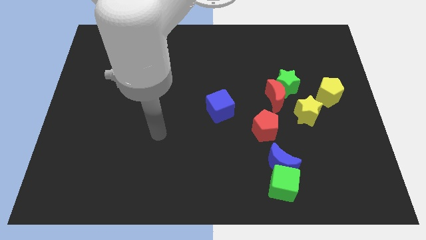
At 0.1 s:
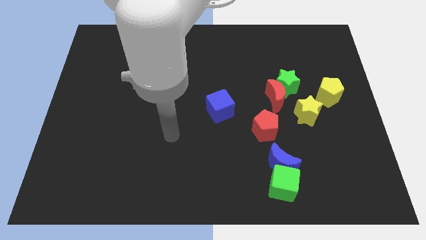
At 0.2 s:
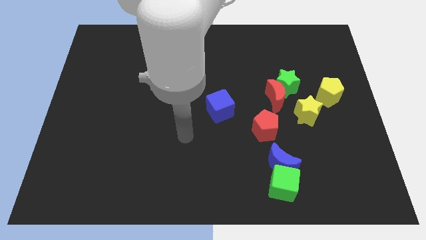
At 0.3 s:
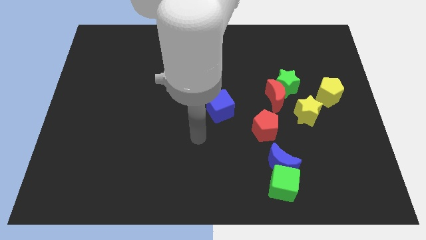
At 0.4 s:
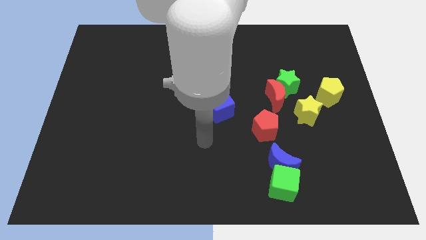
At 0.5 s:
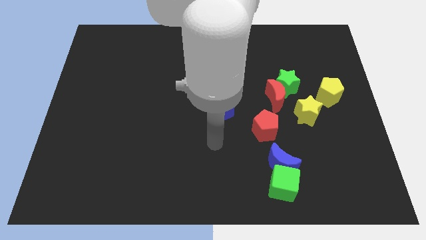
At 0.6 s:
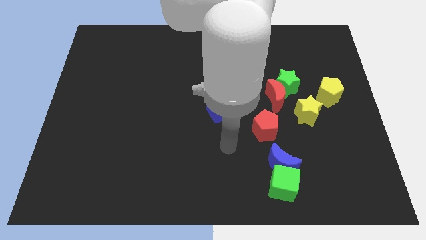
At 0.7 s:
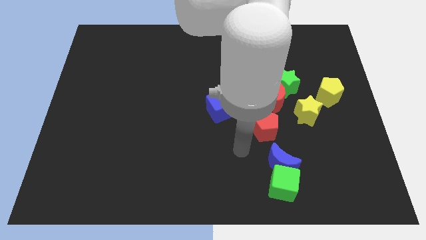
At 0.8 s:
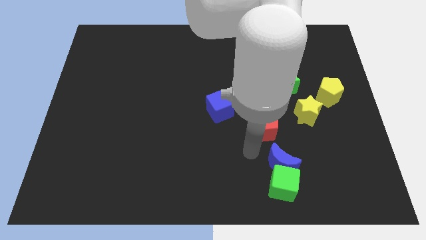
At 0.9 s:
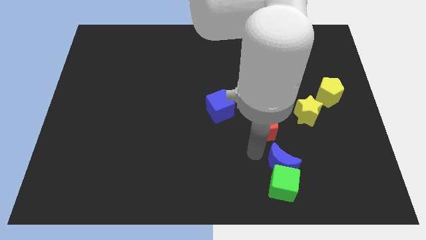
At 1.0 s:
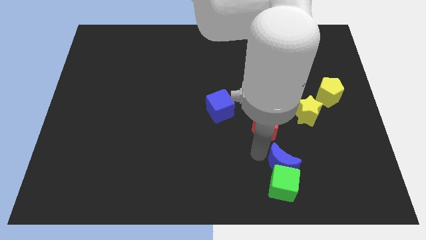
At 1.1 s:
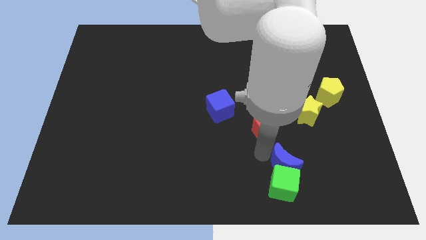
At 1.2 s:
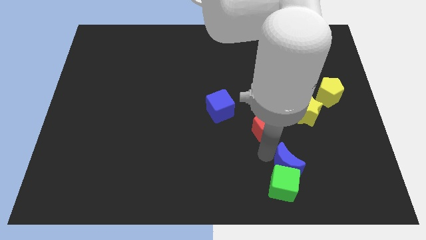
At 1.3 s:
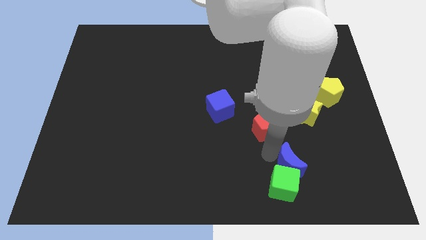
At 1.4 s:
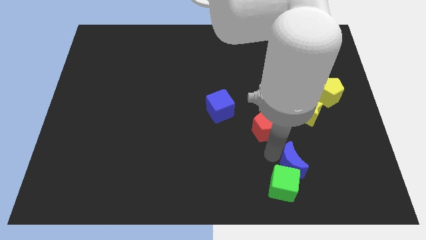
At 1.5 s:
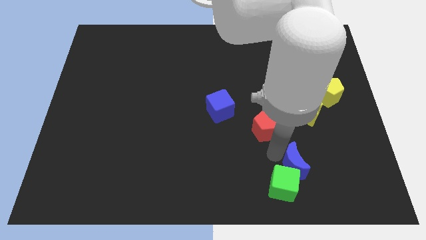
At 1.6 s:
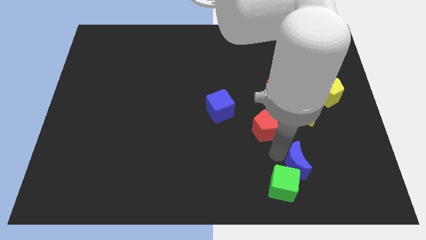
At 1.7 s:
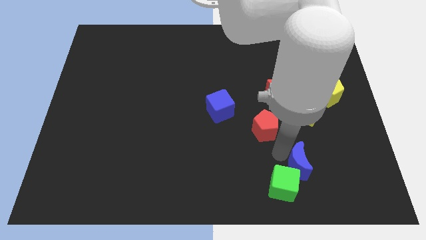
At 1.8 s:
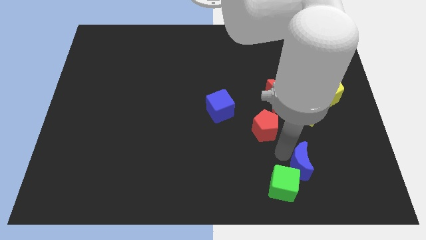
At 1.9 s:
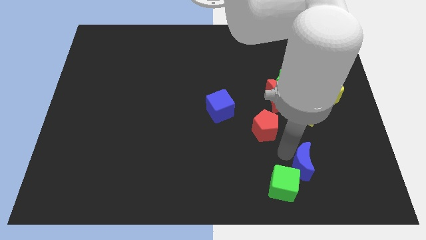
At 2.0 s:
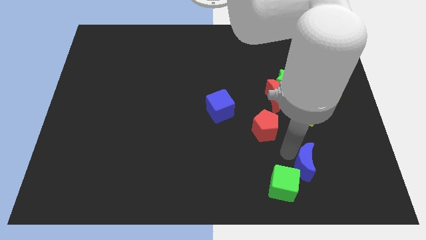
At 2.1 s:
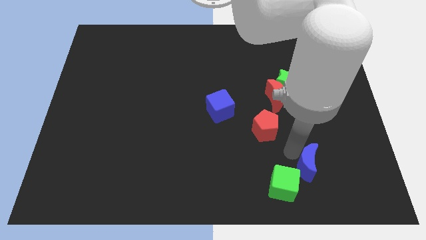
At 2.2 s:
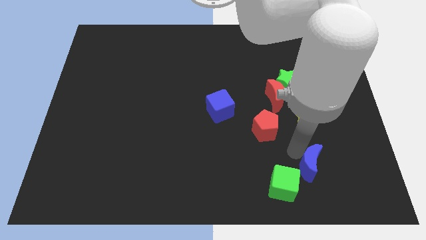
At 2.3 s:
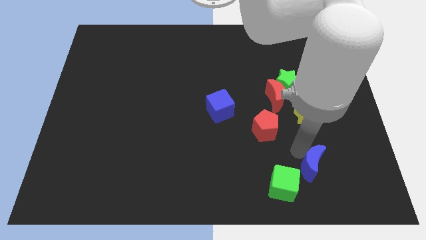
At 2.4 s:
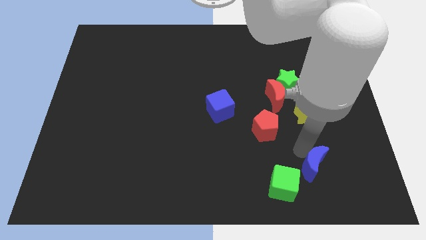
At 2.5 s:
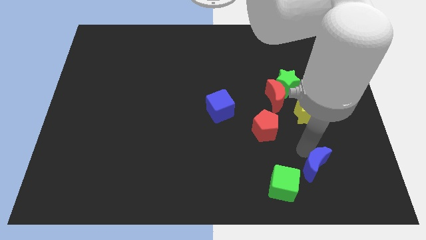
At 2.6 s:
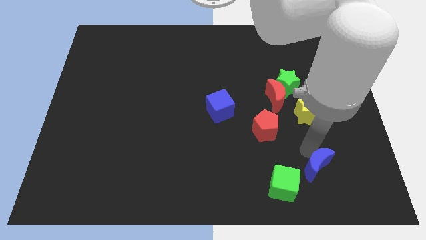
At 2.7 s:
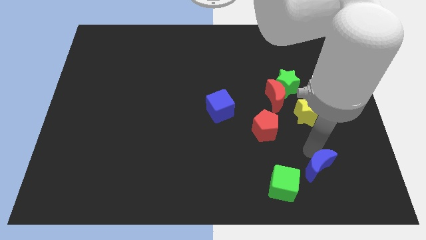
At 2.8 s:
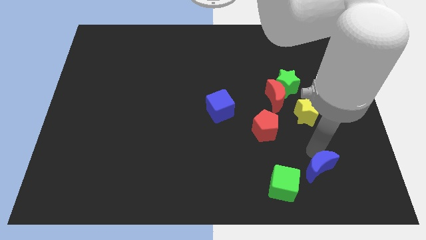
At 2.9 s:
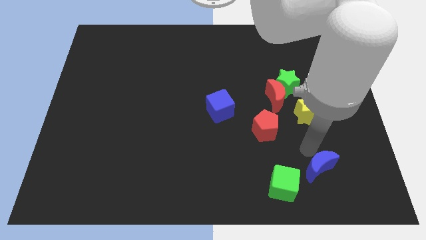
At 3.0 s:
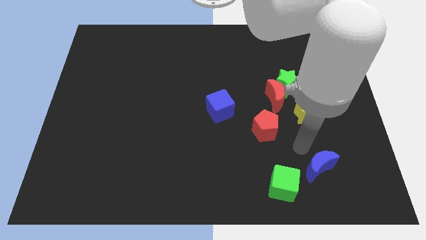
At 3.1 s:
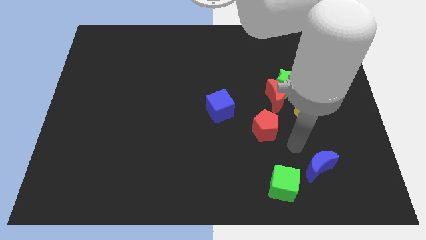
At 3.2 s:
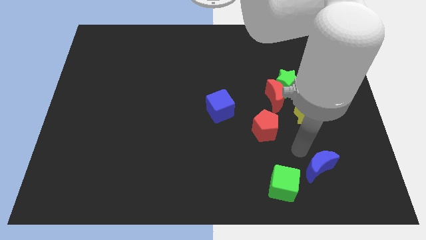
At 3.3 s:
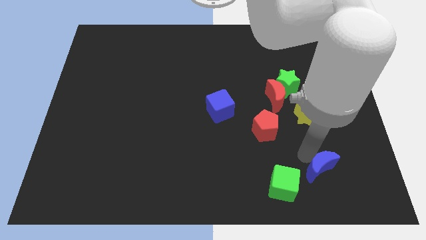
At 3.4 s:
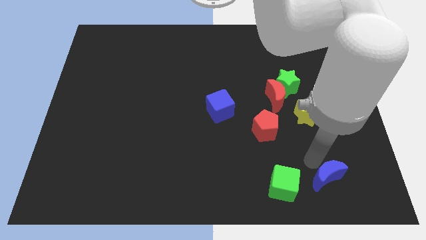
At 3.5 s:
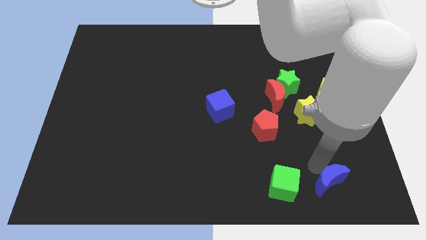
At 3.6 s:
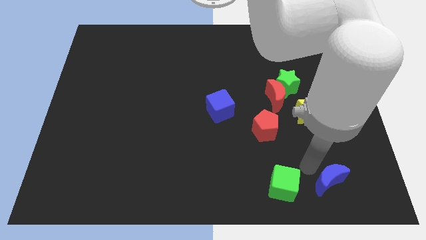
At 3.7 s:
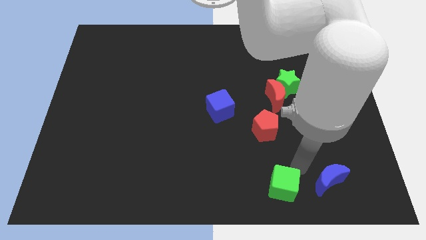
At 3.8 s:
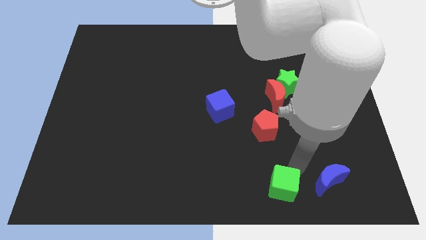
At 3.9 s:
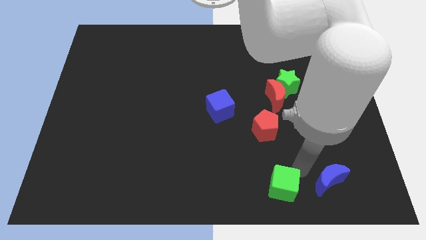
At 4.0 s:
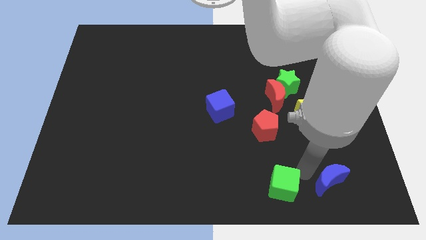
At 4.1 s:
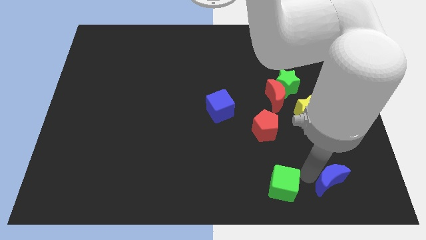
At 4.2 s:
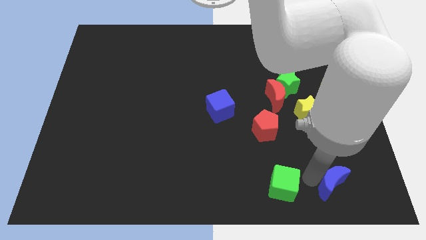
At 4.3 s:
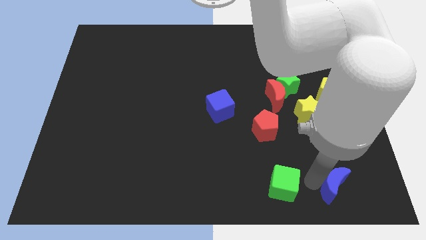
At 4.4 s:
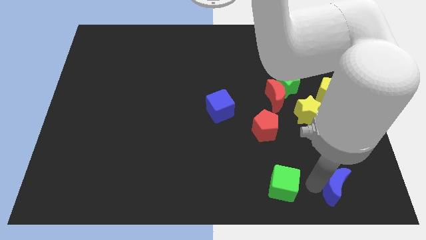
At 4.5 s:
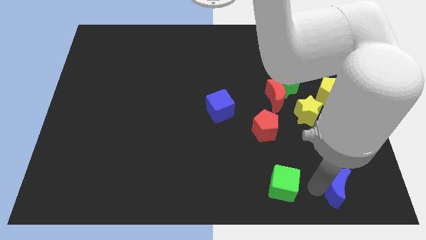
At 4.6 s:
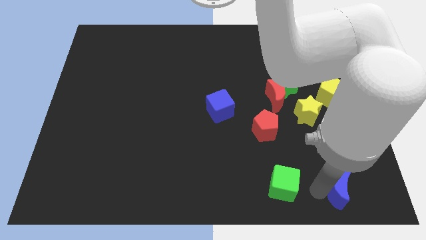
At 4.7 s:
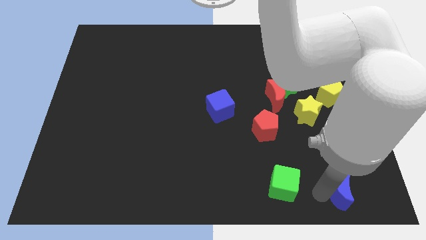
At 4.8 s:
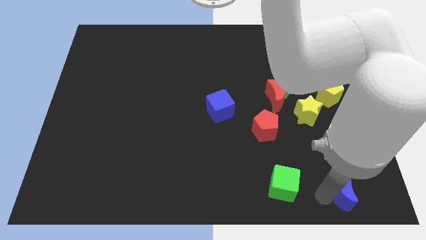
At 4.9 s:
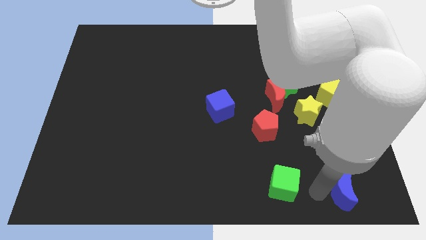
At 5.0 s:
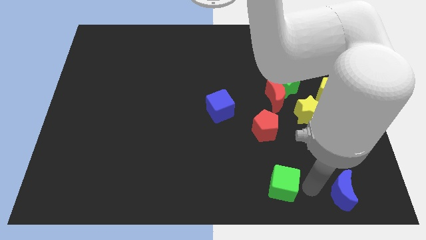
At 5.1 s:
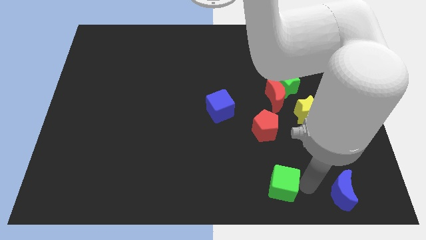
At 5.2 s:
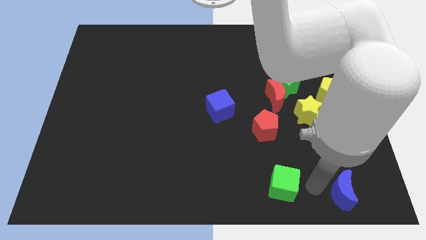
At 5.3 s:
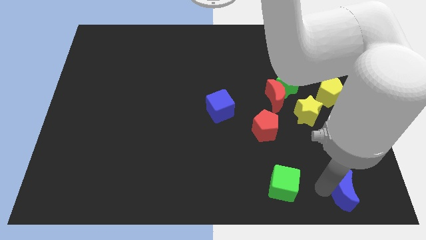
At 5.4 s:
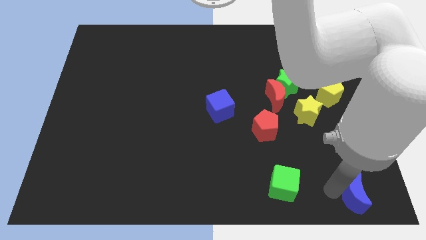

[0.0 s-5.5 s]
put the blue moon to the bottom right corner

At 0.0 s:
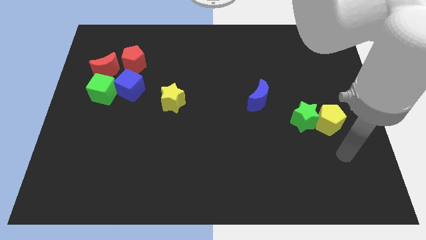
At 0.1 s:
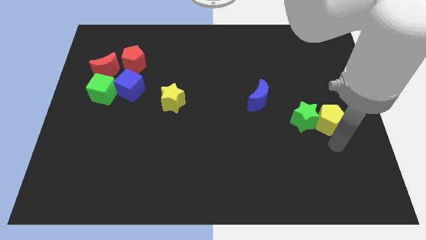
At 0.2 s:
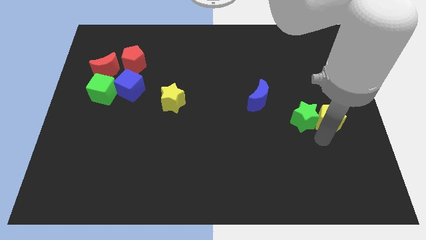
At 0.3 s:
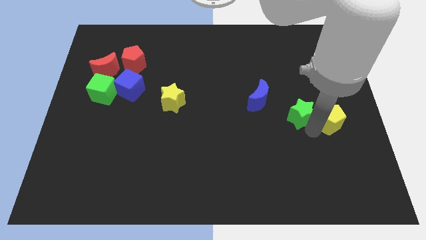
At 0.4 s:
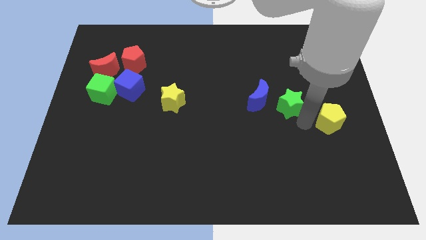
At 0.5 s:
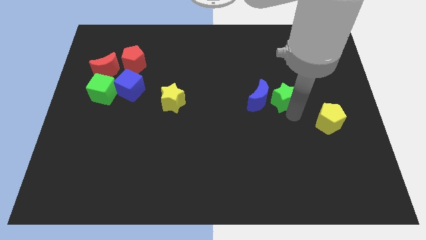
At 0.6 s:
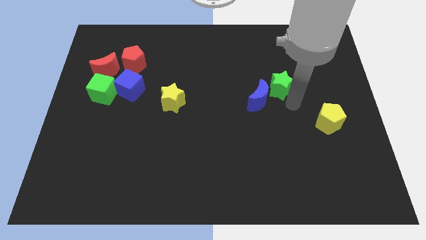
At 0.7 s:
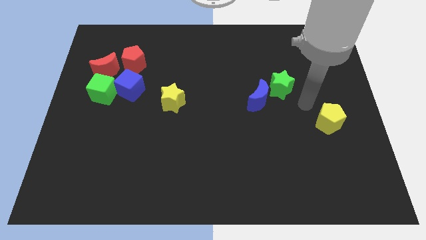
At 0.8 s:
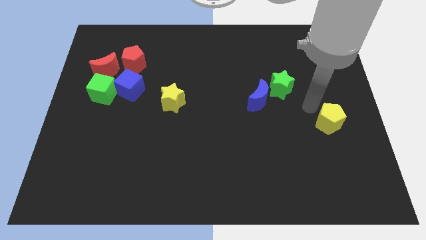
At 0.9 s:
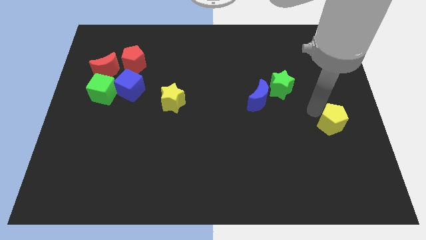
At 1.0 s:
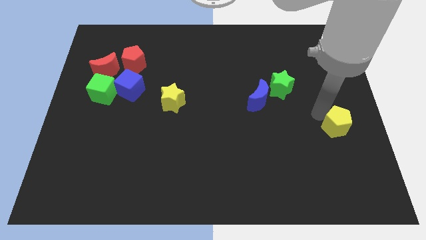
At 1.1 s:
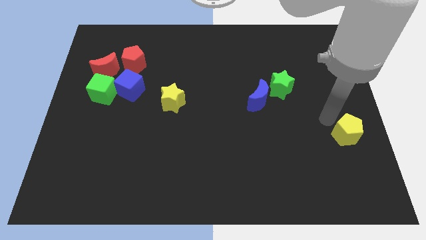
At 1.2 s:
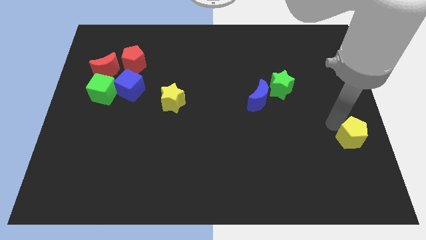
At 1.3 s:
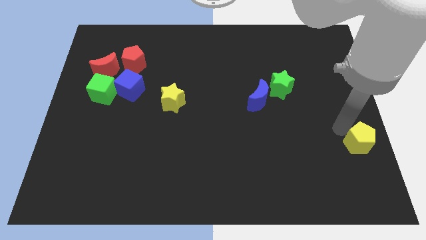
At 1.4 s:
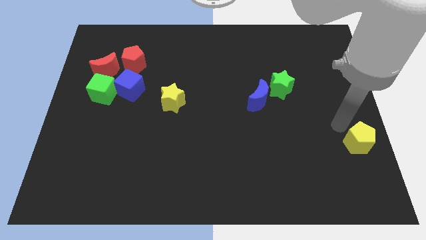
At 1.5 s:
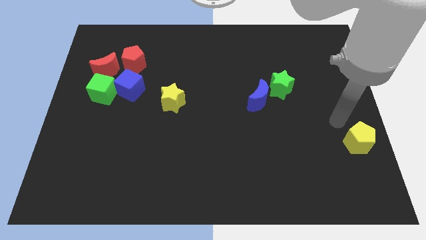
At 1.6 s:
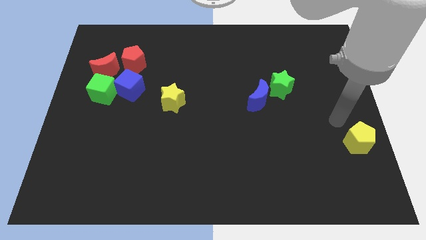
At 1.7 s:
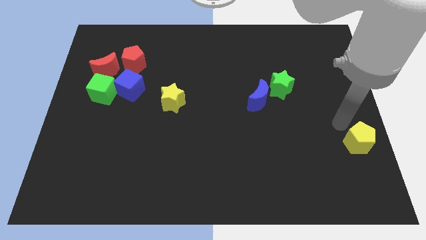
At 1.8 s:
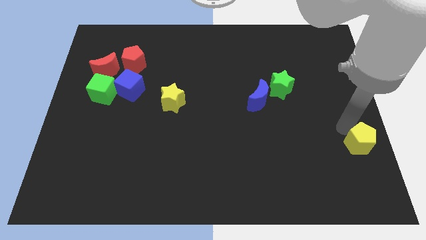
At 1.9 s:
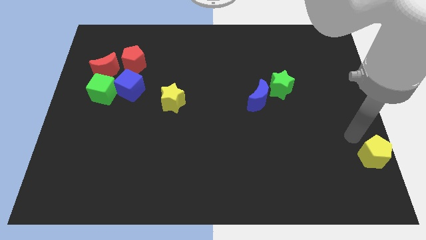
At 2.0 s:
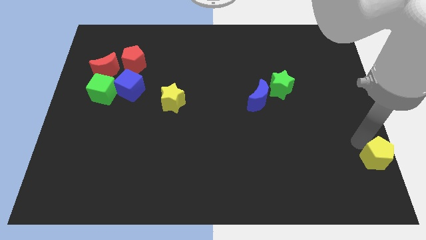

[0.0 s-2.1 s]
put the yellow pentagon to the bottom right

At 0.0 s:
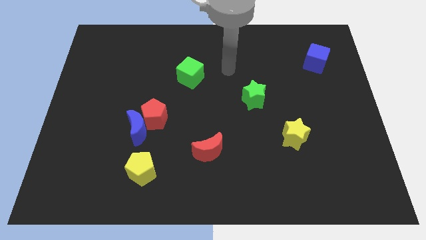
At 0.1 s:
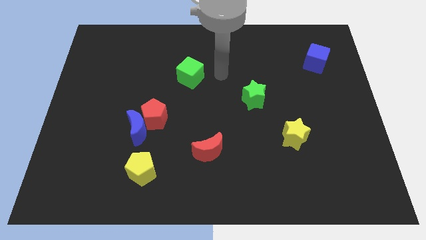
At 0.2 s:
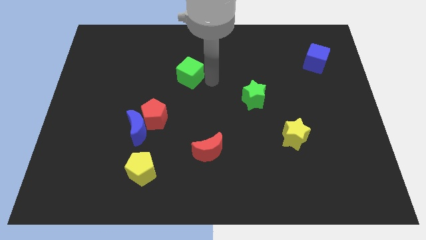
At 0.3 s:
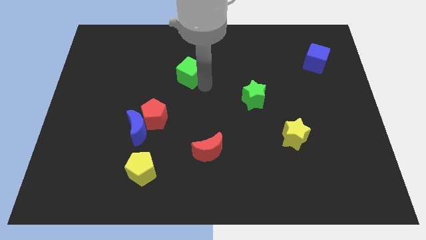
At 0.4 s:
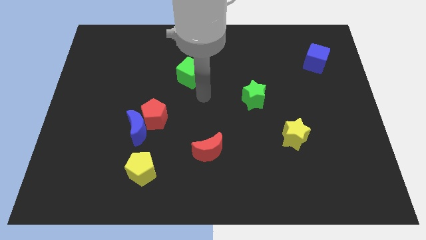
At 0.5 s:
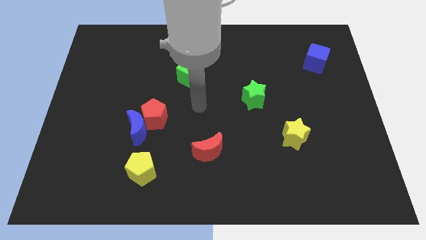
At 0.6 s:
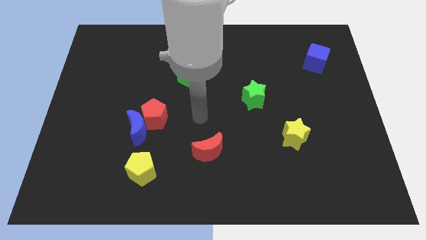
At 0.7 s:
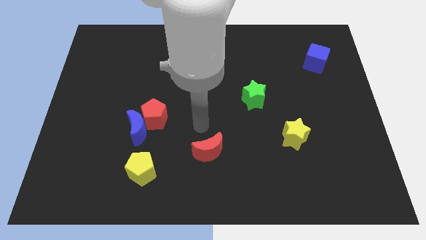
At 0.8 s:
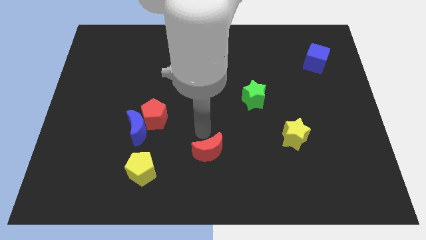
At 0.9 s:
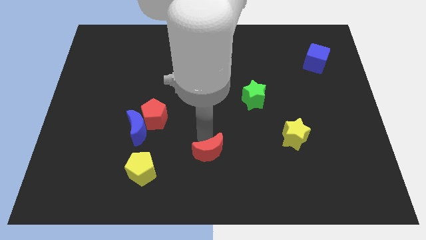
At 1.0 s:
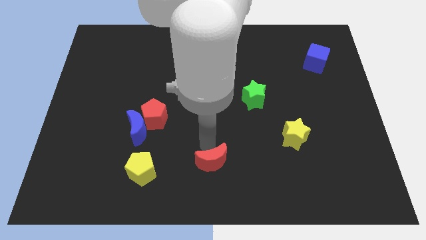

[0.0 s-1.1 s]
push the red moon to the bottom
